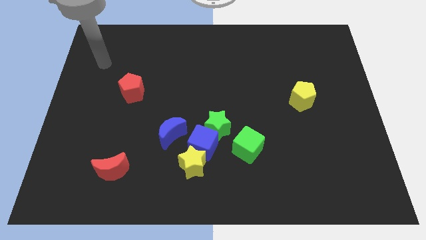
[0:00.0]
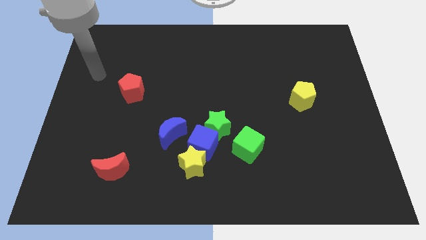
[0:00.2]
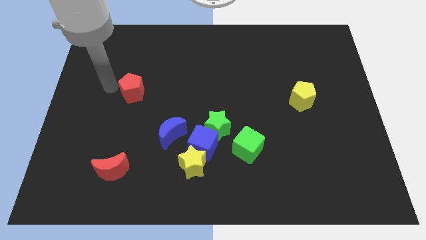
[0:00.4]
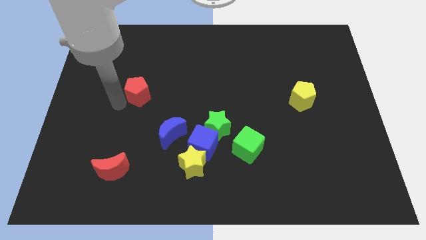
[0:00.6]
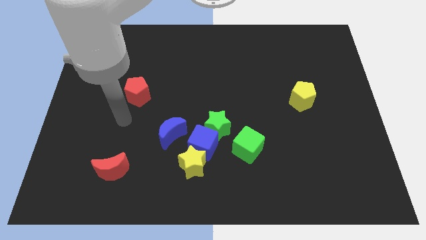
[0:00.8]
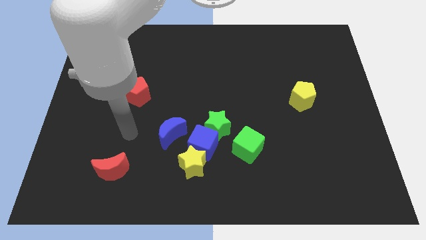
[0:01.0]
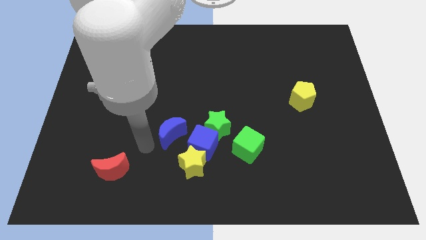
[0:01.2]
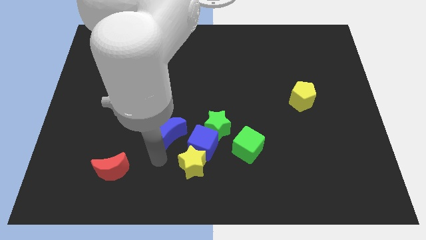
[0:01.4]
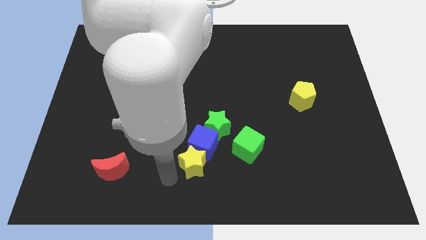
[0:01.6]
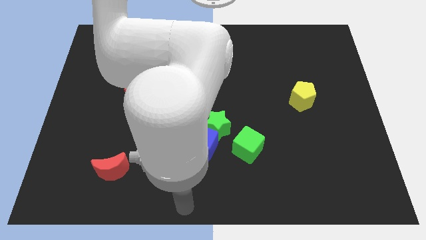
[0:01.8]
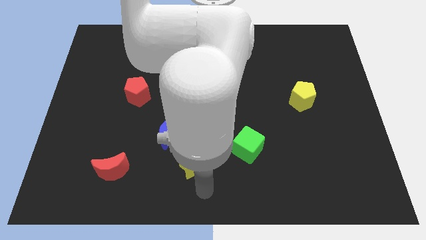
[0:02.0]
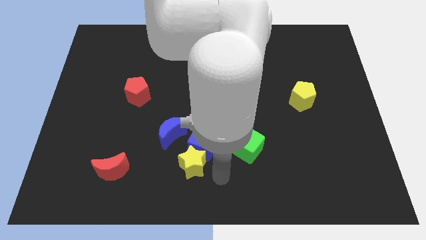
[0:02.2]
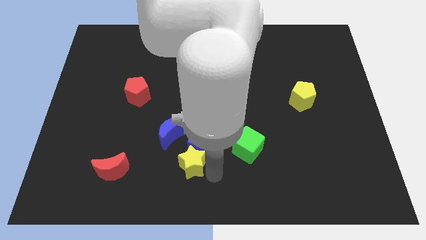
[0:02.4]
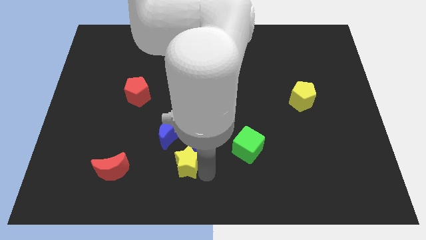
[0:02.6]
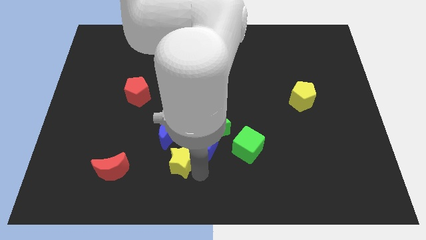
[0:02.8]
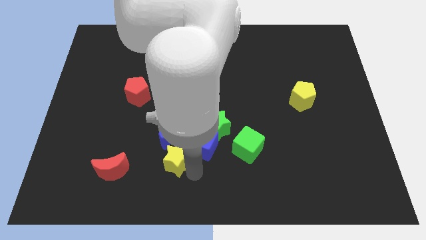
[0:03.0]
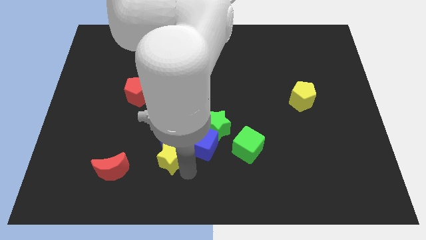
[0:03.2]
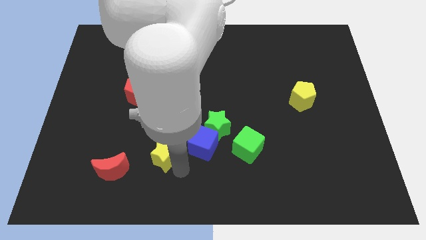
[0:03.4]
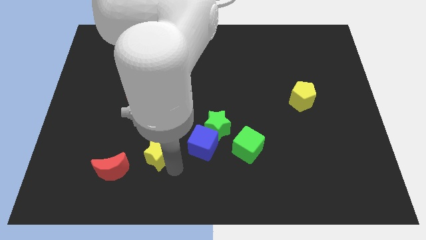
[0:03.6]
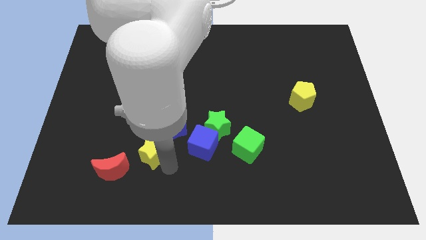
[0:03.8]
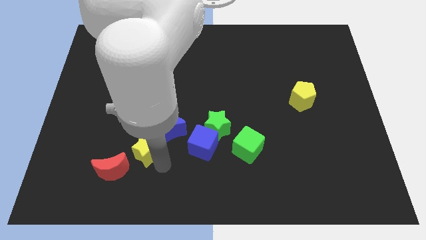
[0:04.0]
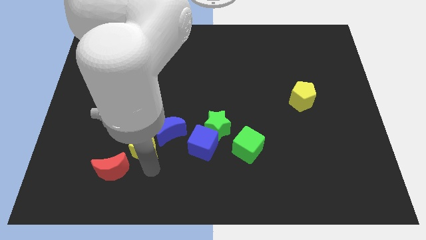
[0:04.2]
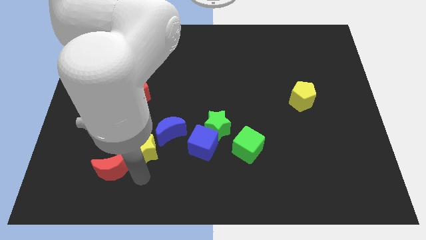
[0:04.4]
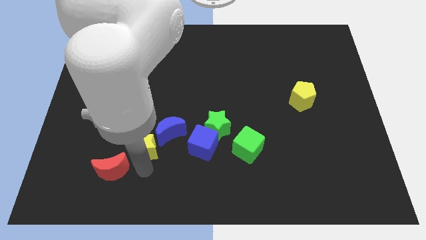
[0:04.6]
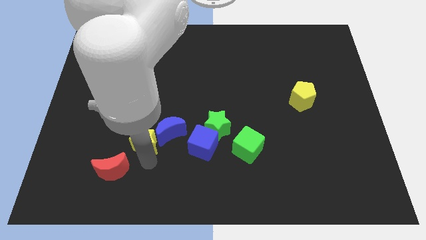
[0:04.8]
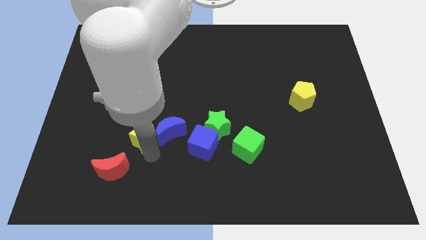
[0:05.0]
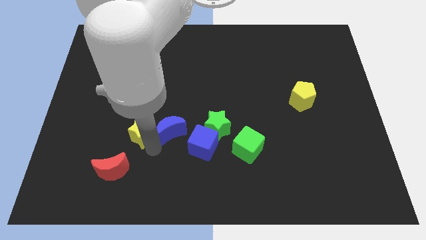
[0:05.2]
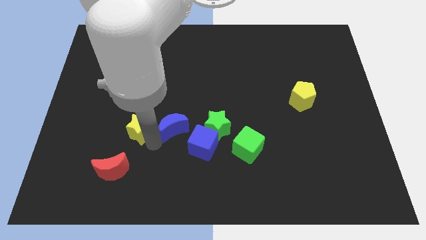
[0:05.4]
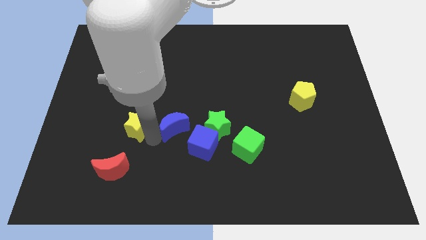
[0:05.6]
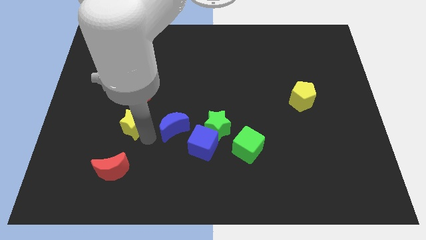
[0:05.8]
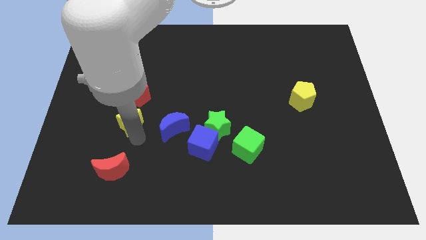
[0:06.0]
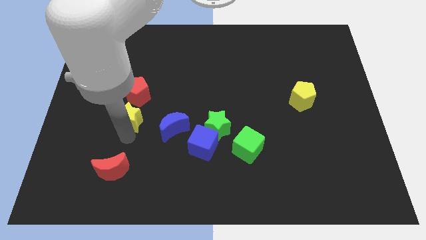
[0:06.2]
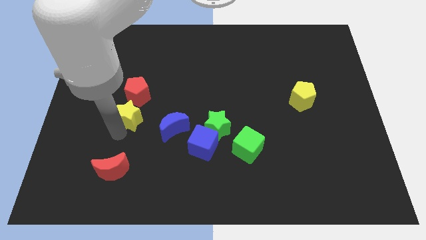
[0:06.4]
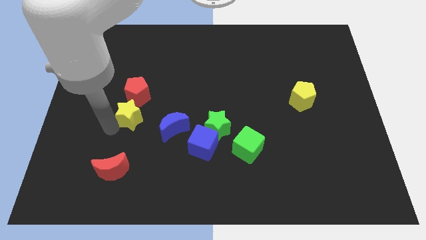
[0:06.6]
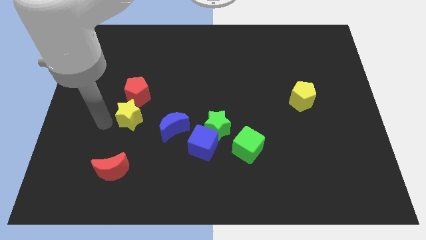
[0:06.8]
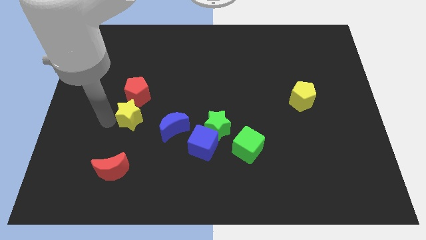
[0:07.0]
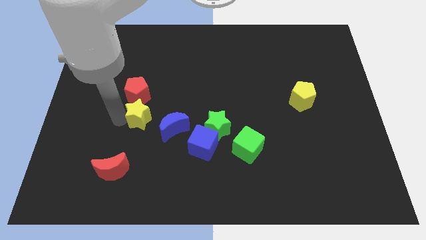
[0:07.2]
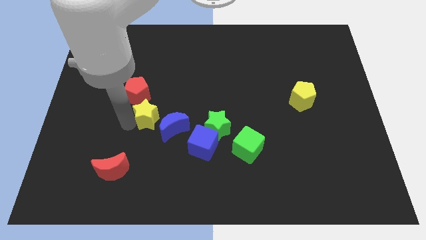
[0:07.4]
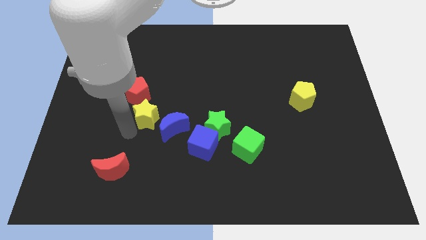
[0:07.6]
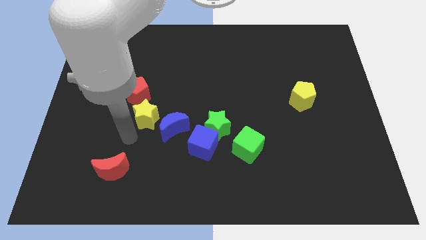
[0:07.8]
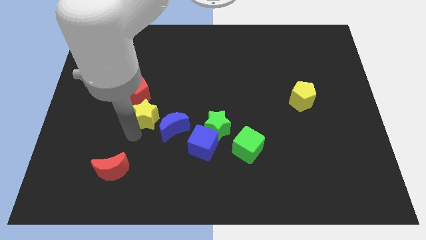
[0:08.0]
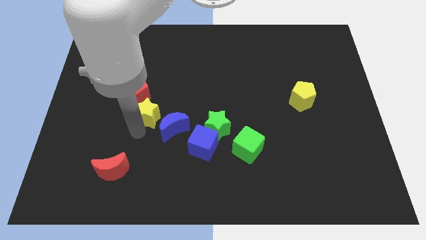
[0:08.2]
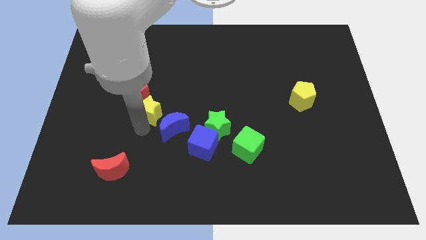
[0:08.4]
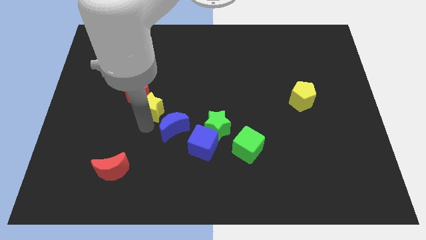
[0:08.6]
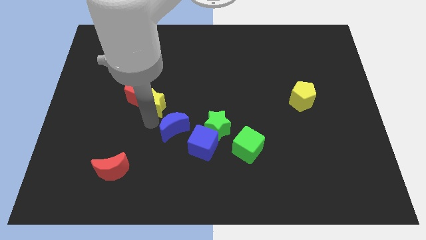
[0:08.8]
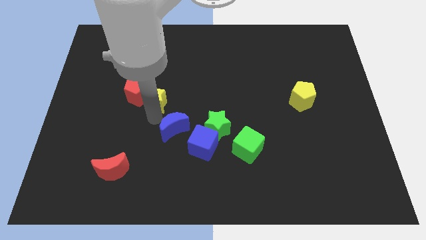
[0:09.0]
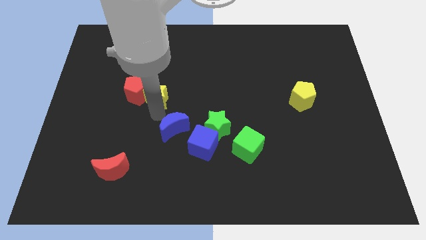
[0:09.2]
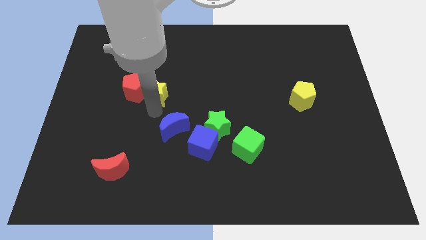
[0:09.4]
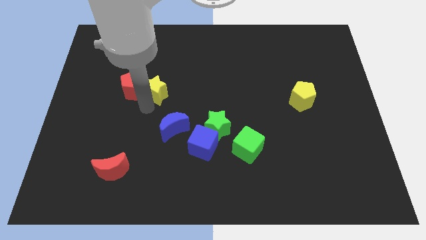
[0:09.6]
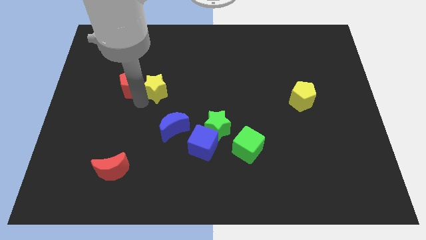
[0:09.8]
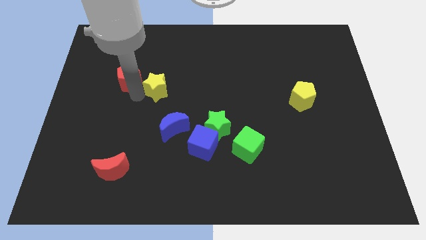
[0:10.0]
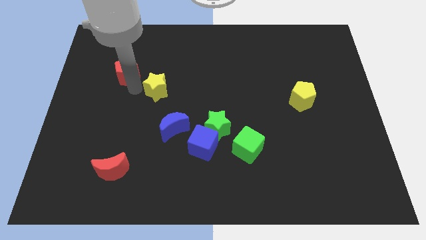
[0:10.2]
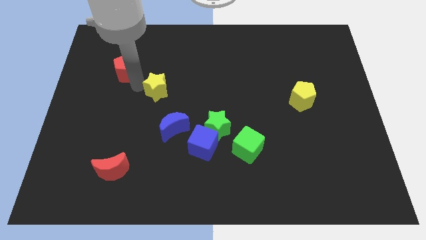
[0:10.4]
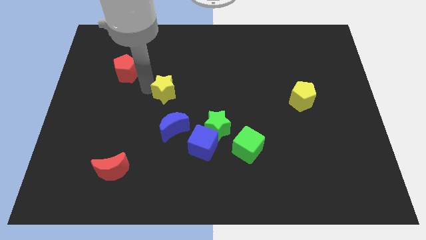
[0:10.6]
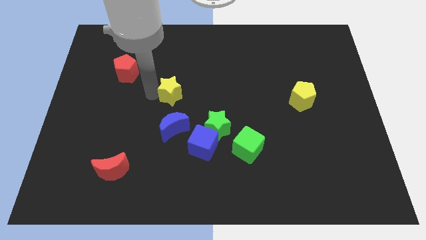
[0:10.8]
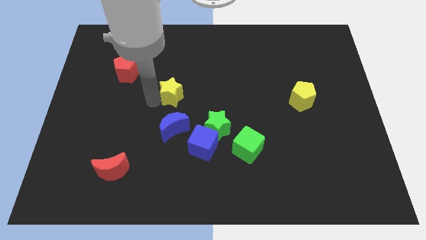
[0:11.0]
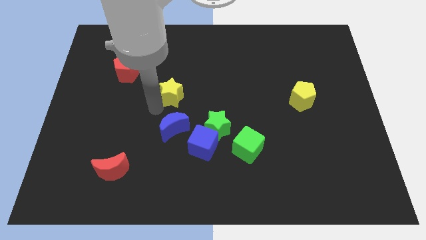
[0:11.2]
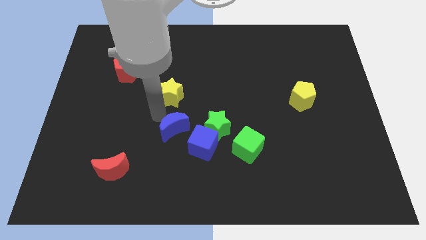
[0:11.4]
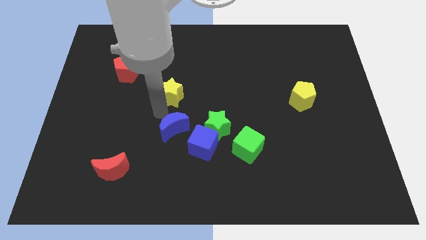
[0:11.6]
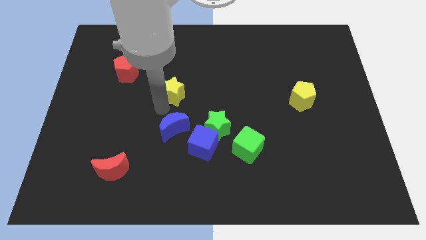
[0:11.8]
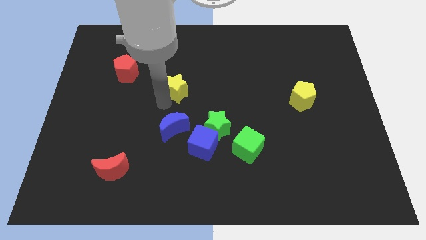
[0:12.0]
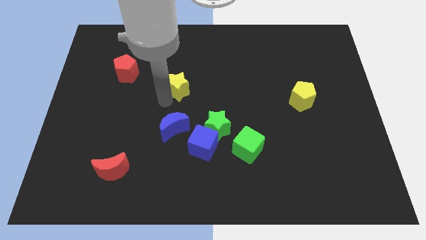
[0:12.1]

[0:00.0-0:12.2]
slide the yellow star upwards

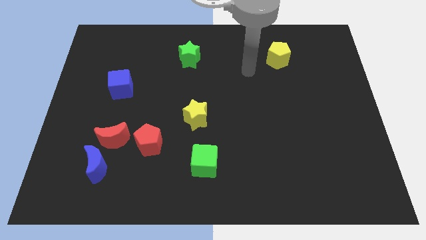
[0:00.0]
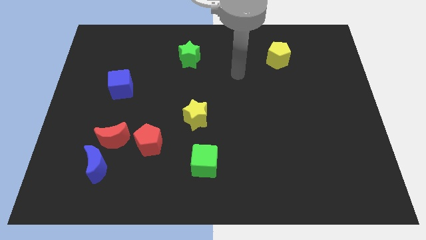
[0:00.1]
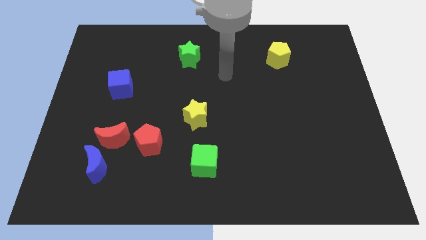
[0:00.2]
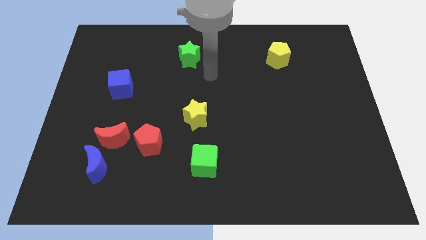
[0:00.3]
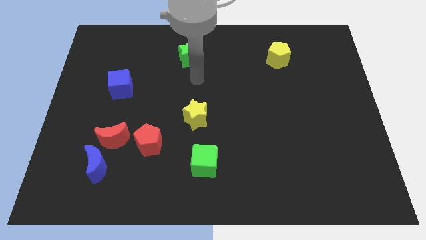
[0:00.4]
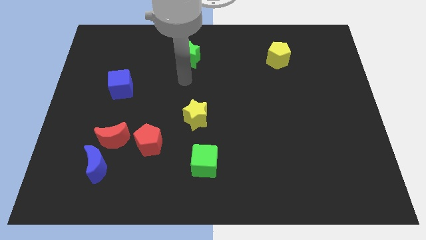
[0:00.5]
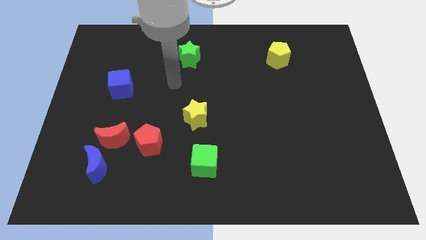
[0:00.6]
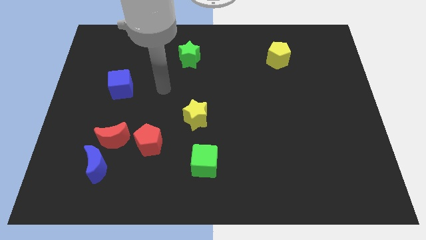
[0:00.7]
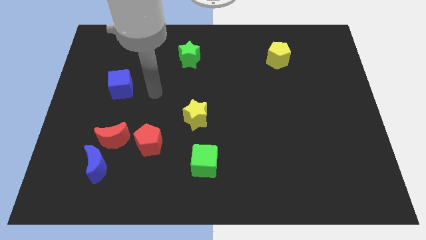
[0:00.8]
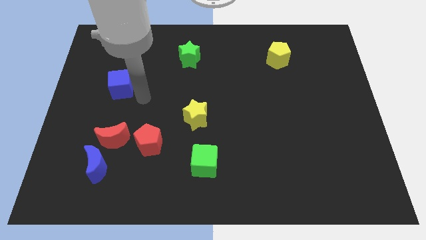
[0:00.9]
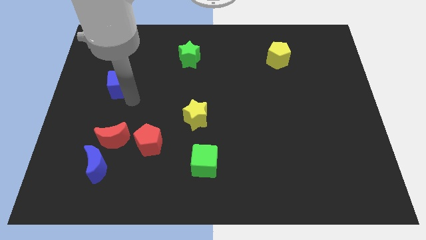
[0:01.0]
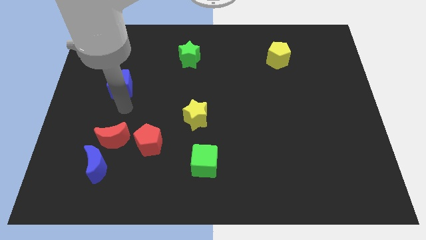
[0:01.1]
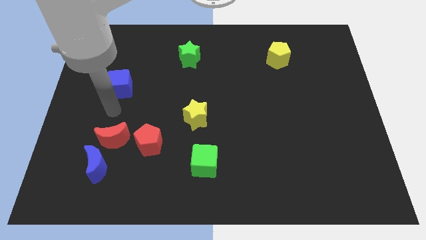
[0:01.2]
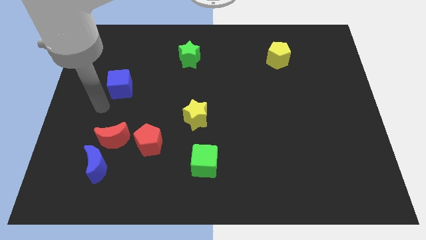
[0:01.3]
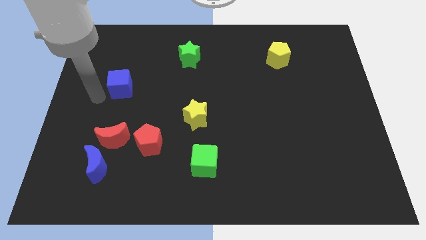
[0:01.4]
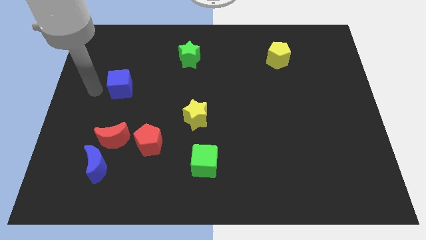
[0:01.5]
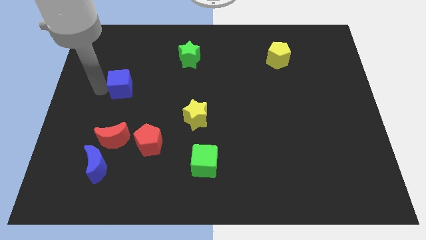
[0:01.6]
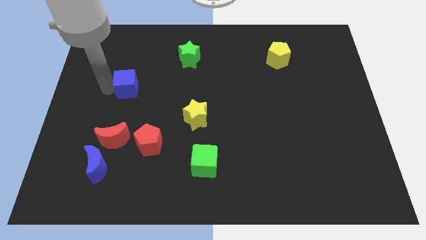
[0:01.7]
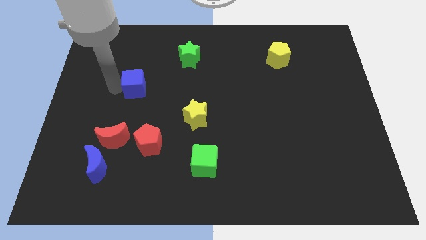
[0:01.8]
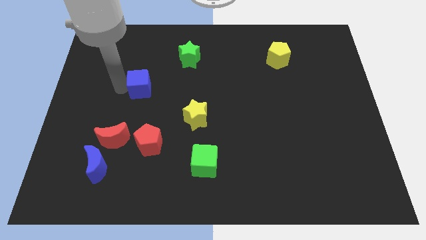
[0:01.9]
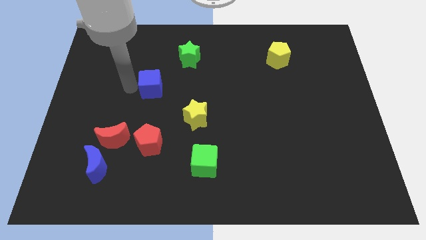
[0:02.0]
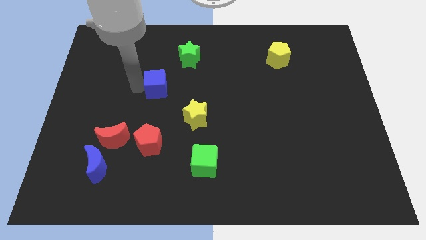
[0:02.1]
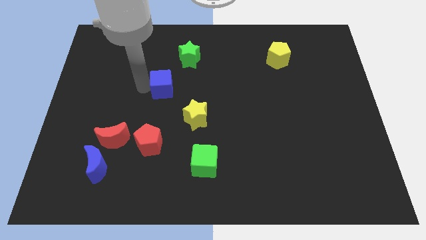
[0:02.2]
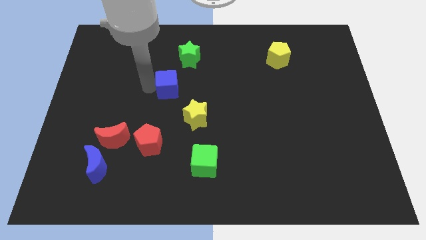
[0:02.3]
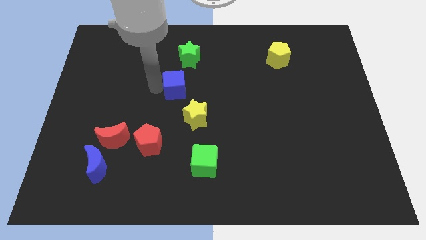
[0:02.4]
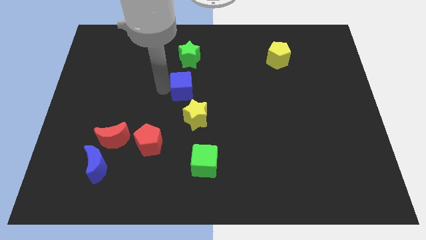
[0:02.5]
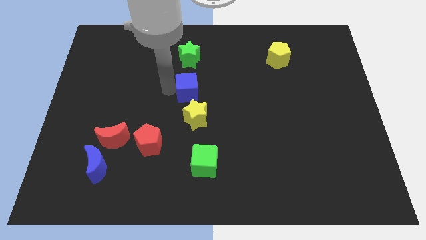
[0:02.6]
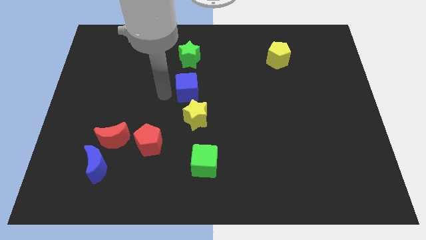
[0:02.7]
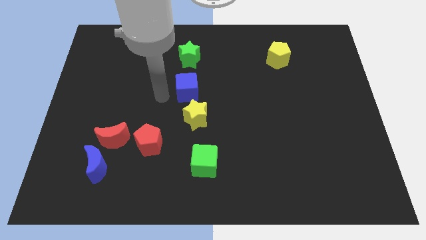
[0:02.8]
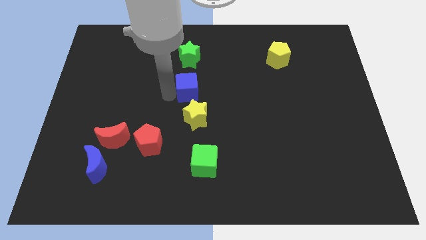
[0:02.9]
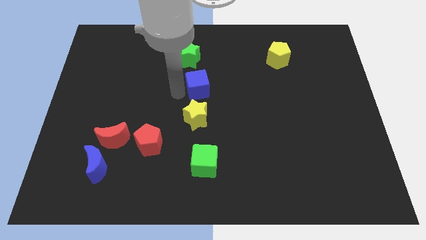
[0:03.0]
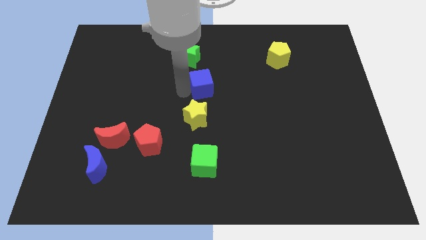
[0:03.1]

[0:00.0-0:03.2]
move the blue cube to the right
